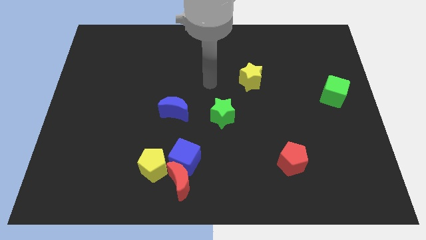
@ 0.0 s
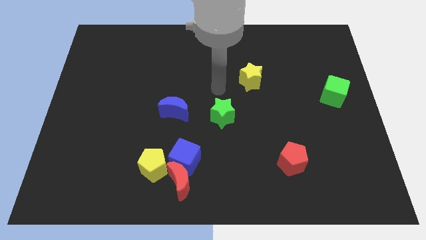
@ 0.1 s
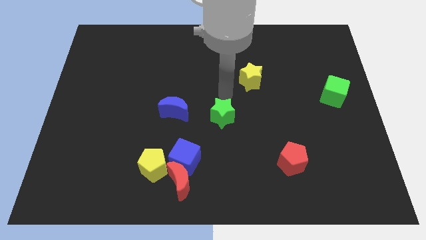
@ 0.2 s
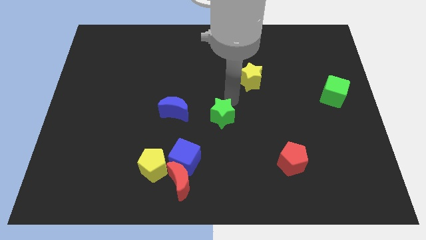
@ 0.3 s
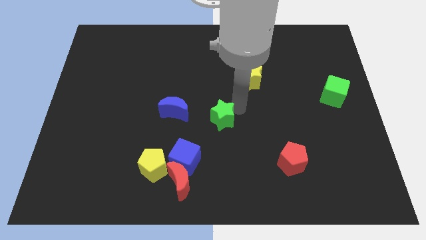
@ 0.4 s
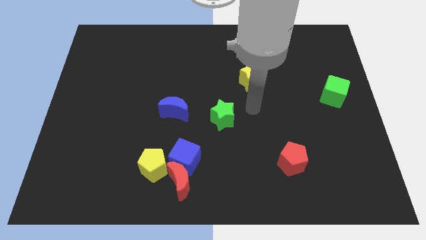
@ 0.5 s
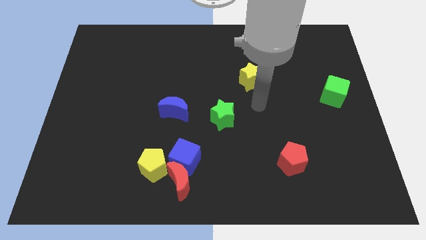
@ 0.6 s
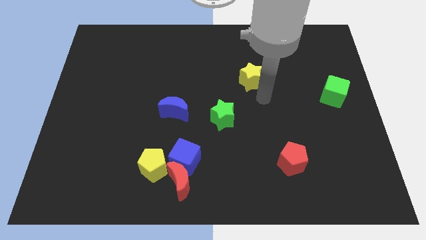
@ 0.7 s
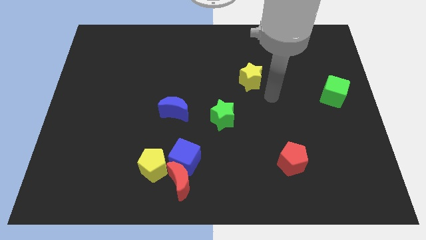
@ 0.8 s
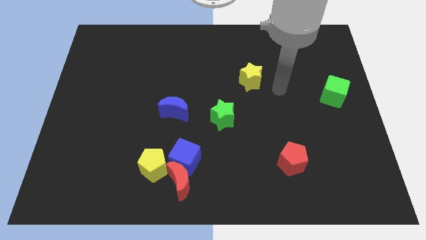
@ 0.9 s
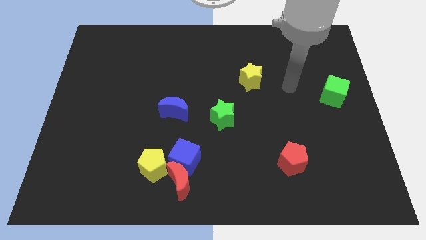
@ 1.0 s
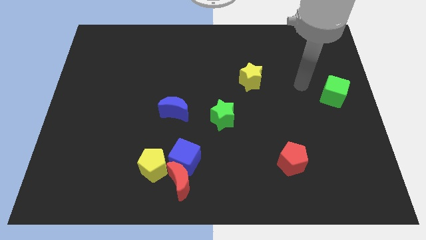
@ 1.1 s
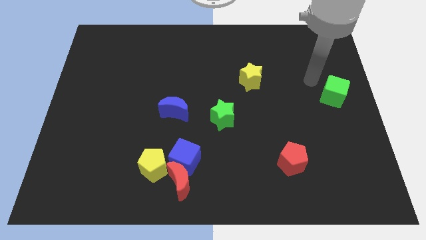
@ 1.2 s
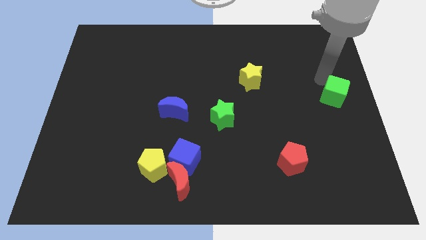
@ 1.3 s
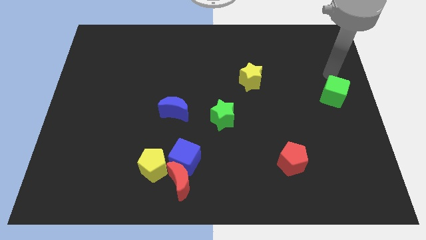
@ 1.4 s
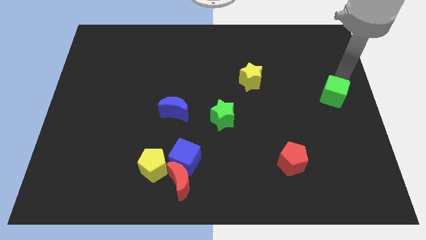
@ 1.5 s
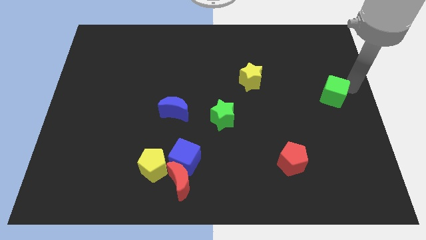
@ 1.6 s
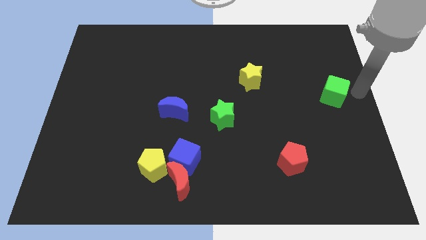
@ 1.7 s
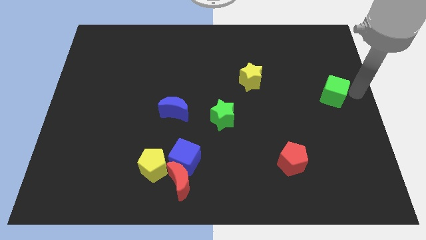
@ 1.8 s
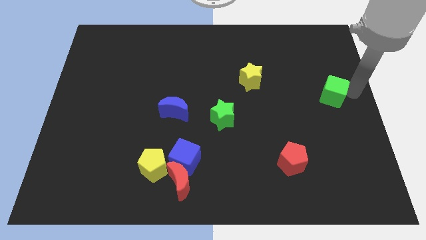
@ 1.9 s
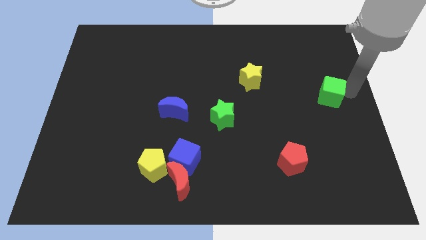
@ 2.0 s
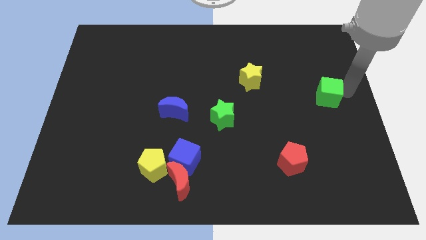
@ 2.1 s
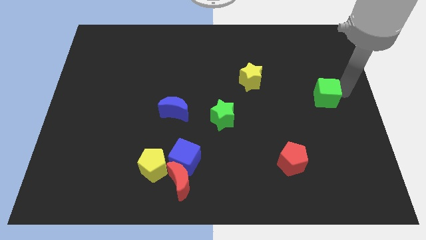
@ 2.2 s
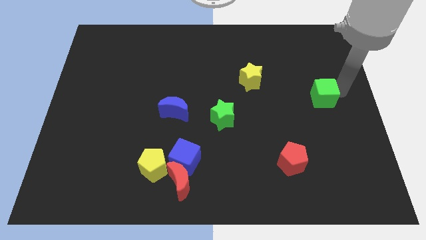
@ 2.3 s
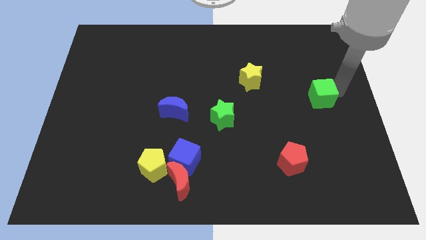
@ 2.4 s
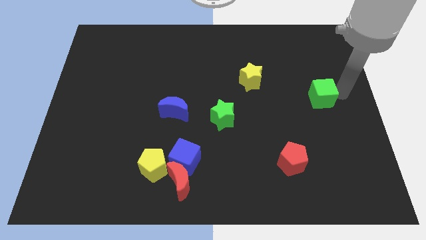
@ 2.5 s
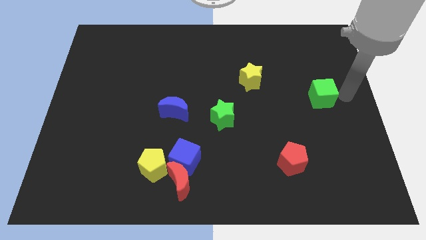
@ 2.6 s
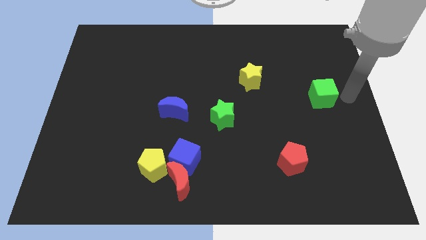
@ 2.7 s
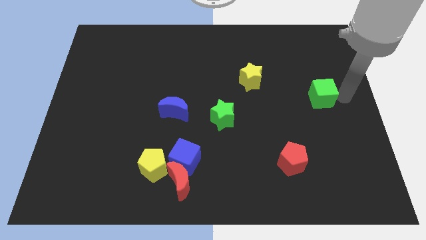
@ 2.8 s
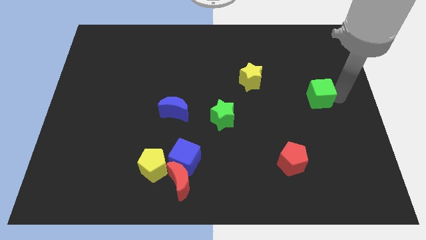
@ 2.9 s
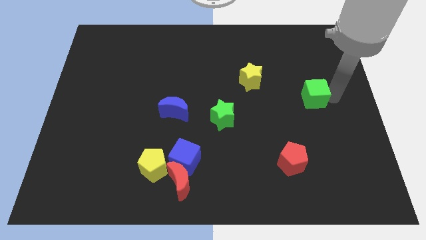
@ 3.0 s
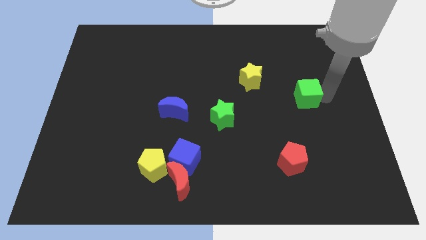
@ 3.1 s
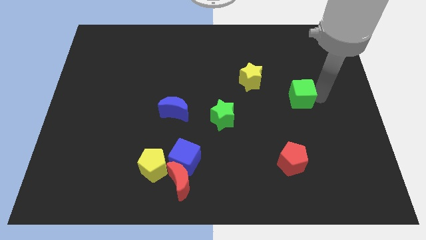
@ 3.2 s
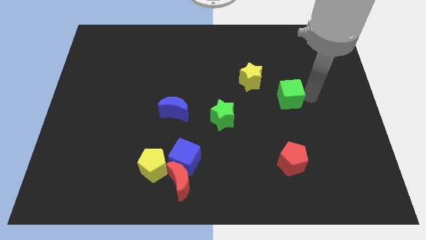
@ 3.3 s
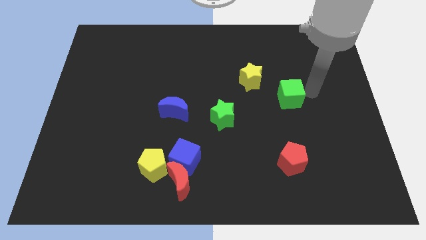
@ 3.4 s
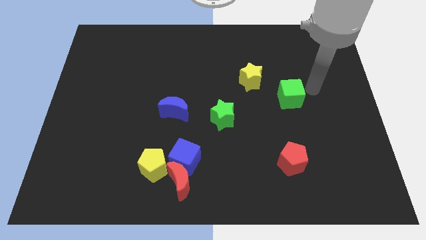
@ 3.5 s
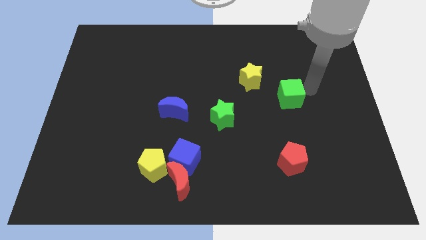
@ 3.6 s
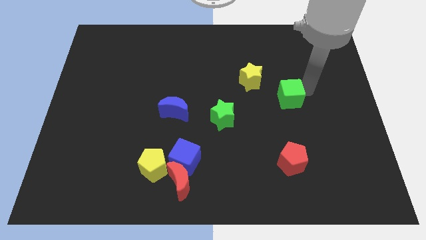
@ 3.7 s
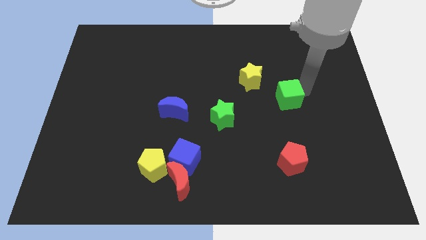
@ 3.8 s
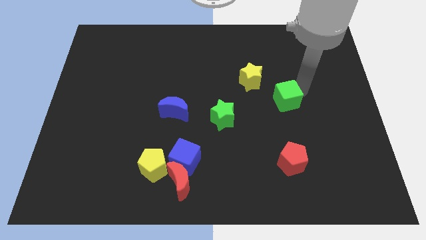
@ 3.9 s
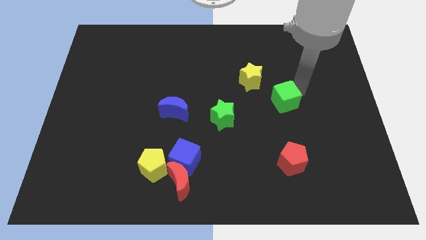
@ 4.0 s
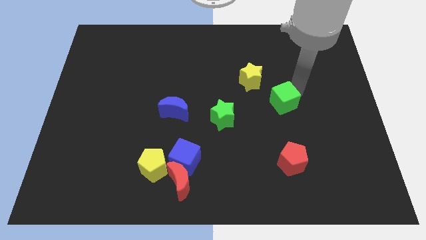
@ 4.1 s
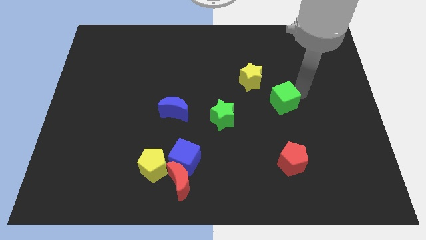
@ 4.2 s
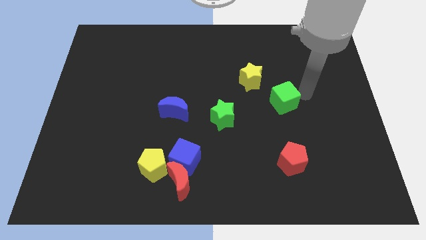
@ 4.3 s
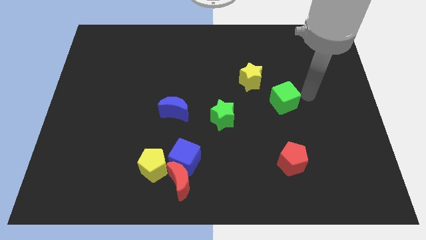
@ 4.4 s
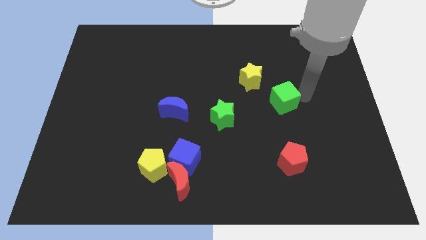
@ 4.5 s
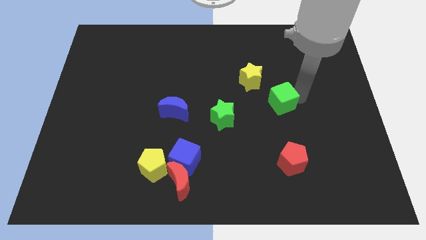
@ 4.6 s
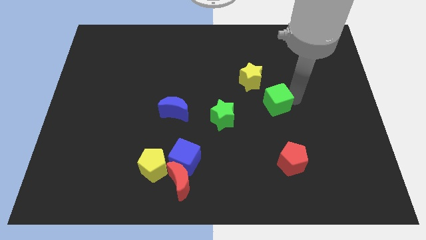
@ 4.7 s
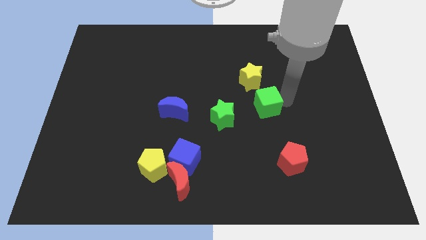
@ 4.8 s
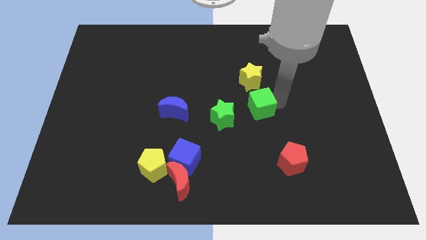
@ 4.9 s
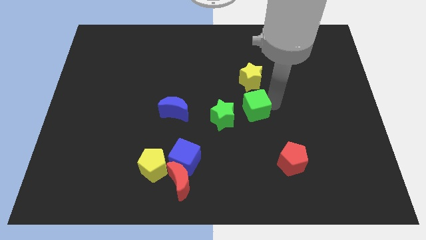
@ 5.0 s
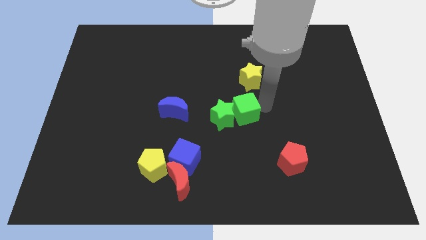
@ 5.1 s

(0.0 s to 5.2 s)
slide the green cube to the green star

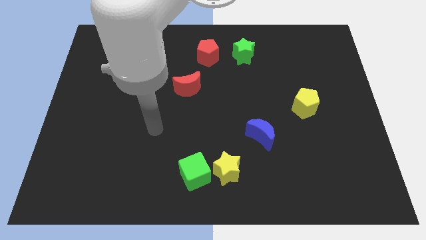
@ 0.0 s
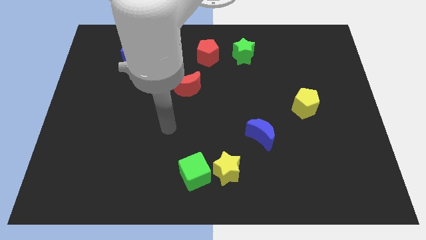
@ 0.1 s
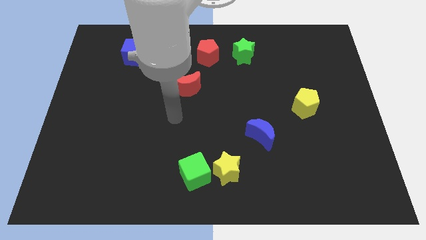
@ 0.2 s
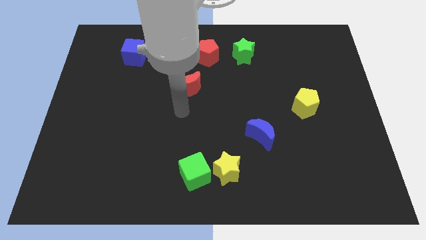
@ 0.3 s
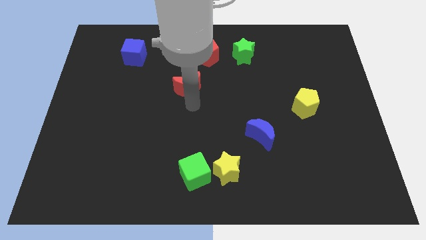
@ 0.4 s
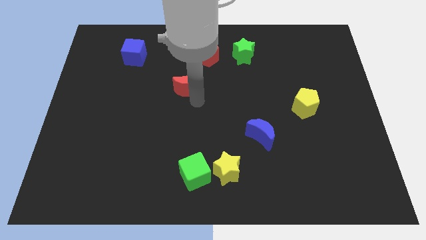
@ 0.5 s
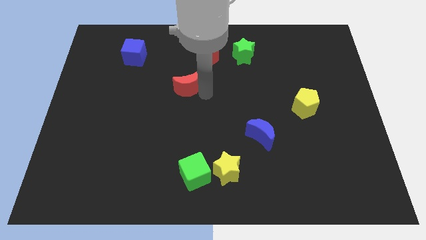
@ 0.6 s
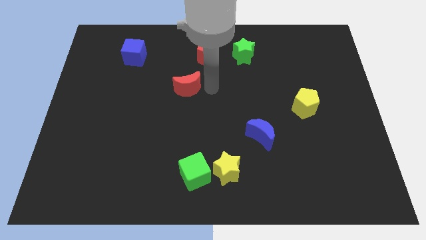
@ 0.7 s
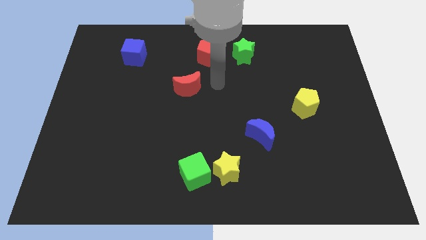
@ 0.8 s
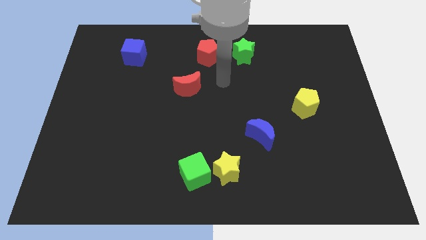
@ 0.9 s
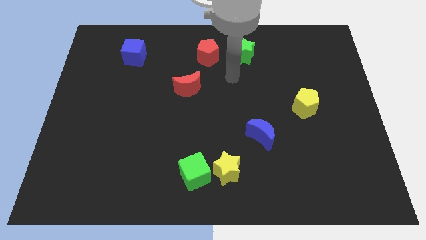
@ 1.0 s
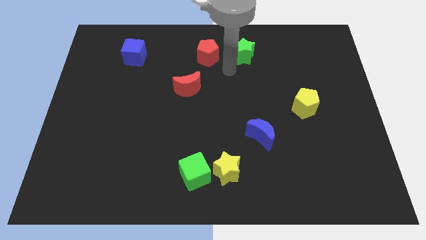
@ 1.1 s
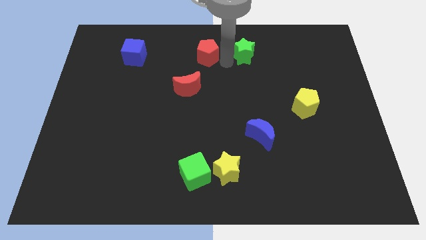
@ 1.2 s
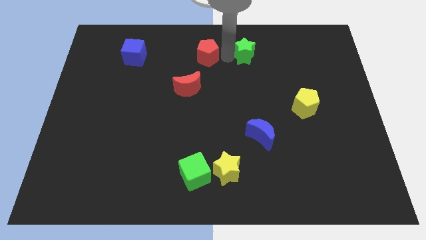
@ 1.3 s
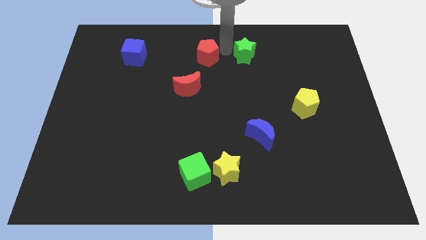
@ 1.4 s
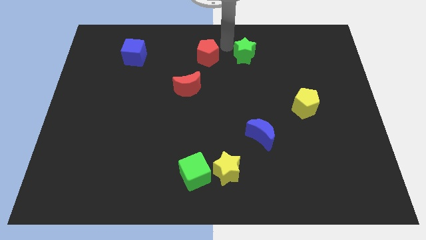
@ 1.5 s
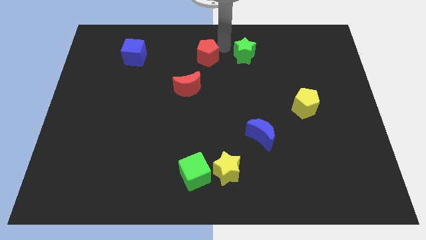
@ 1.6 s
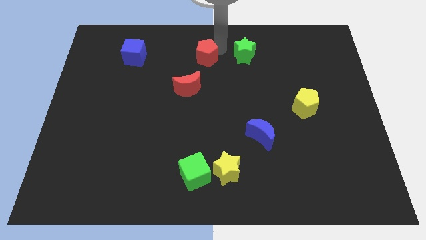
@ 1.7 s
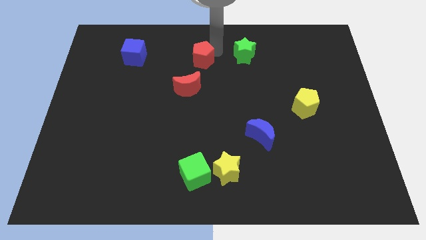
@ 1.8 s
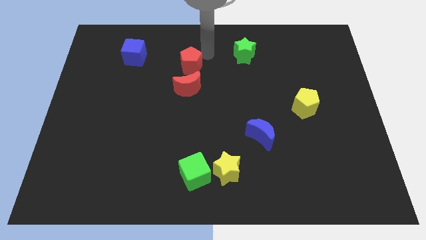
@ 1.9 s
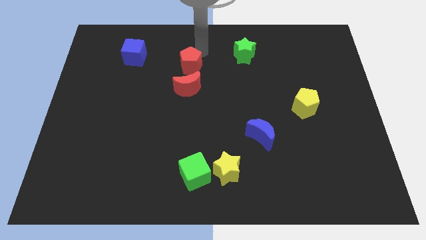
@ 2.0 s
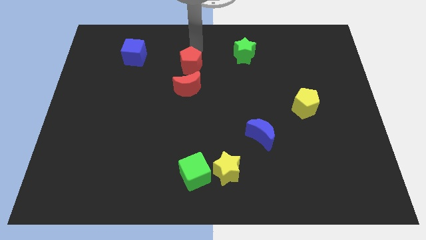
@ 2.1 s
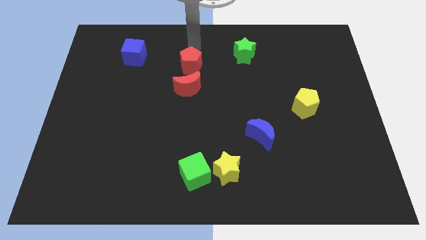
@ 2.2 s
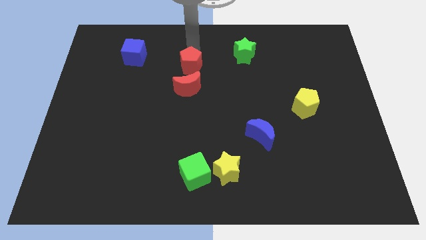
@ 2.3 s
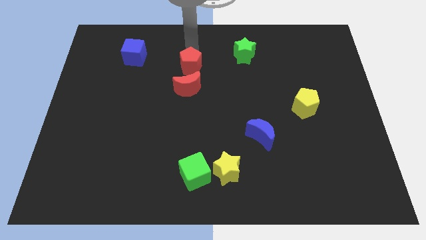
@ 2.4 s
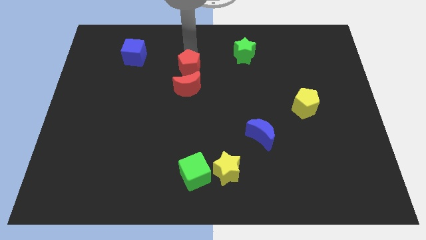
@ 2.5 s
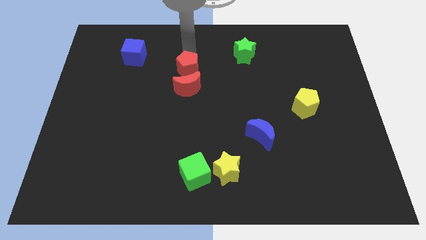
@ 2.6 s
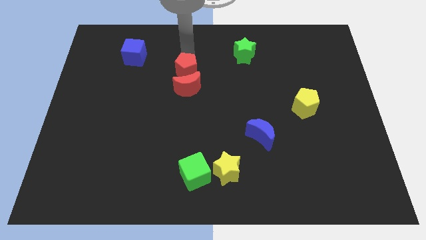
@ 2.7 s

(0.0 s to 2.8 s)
push the red pentagon close to the red moon
